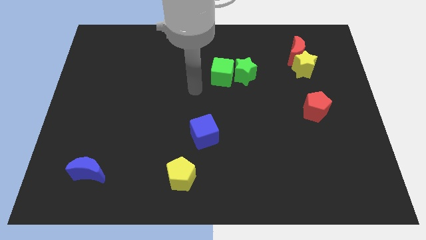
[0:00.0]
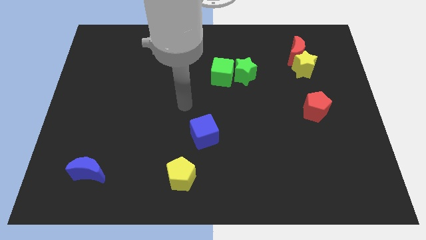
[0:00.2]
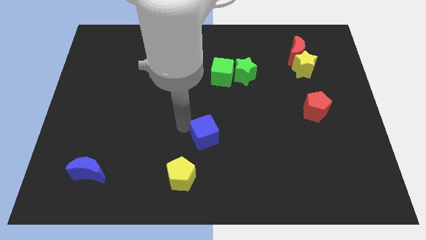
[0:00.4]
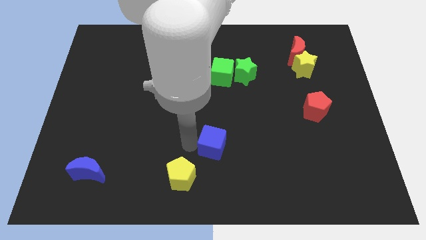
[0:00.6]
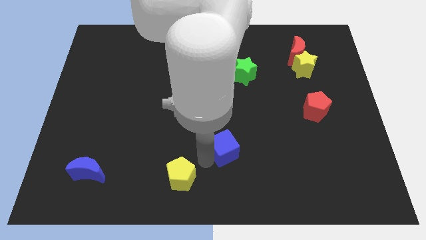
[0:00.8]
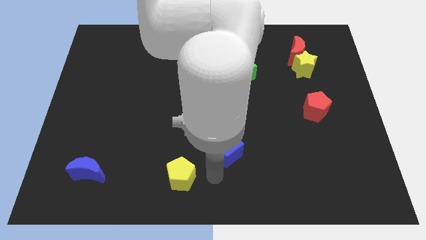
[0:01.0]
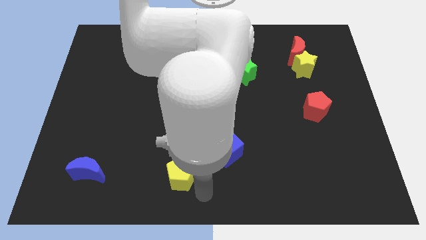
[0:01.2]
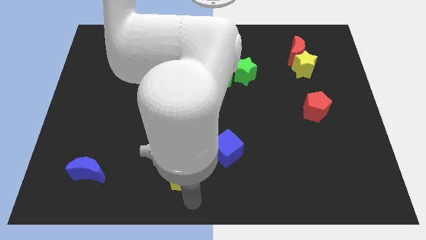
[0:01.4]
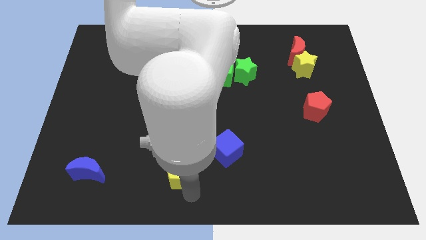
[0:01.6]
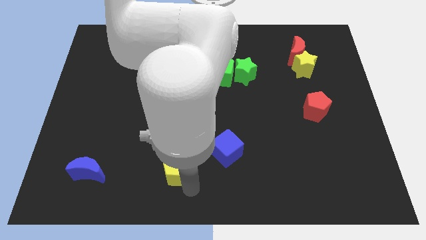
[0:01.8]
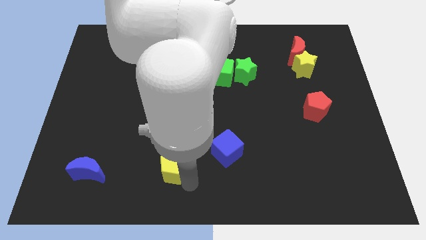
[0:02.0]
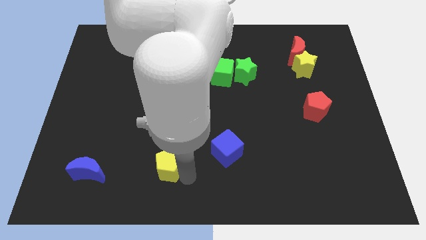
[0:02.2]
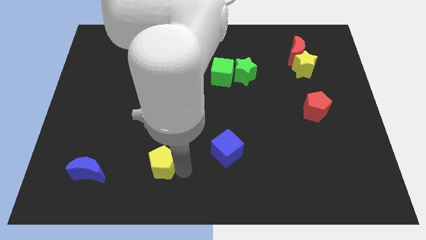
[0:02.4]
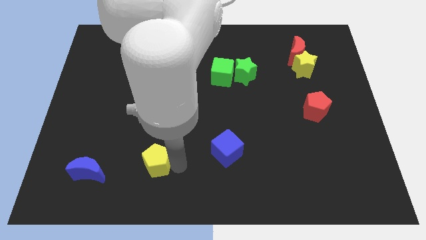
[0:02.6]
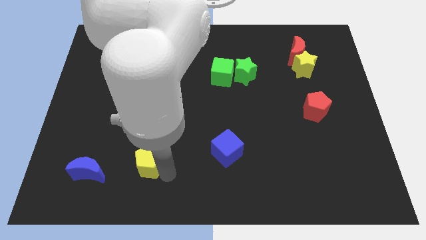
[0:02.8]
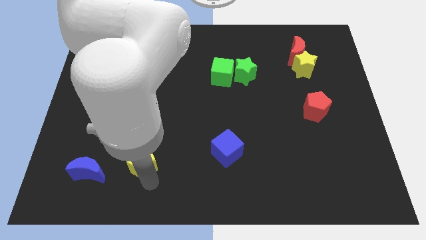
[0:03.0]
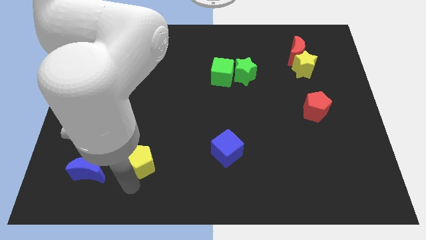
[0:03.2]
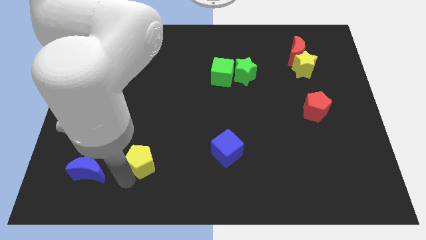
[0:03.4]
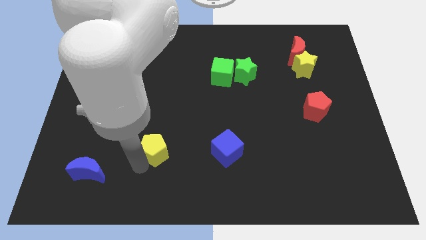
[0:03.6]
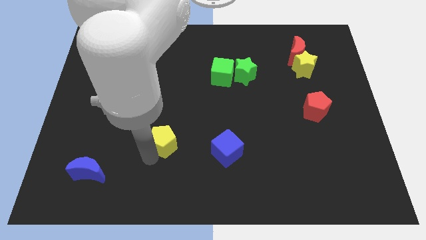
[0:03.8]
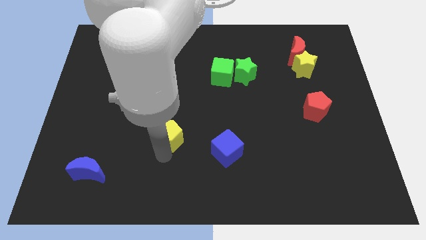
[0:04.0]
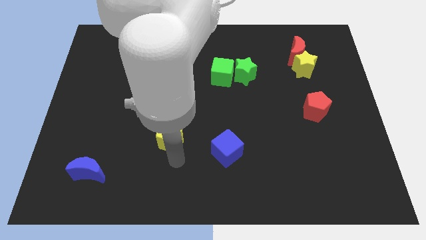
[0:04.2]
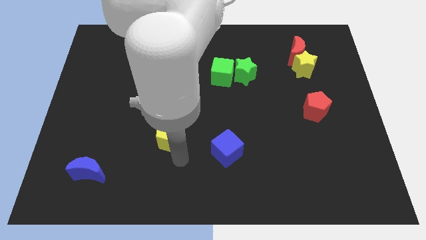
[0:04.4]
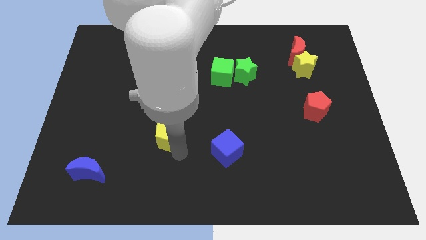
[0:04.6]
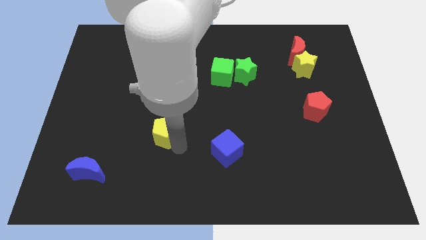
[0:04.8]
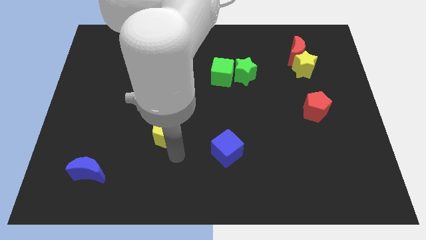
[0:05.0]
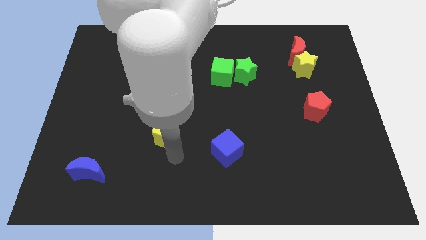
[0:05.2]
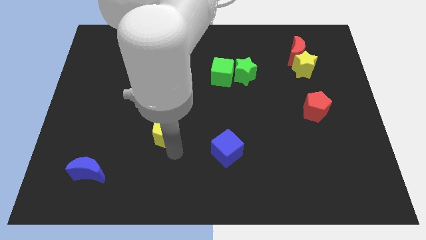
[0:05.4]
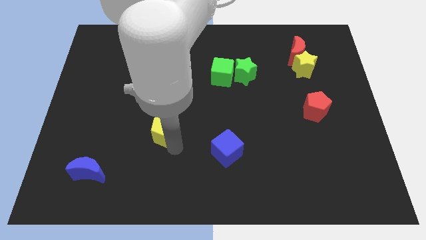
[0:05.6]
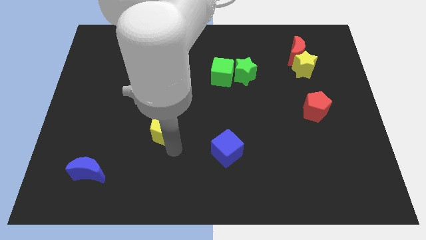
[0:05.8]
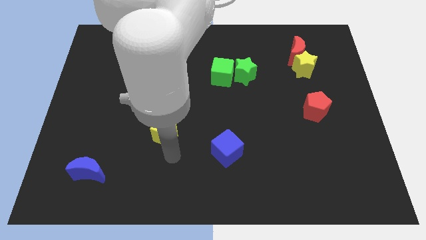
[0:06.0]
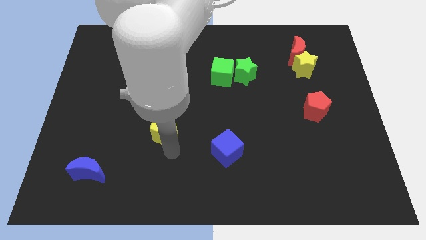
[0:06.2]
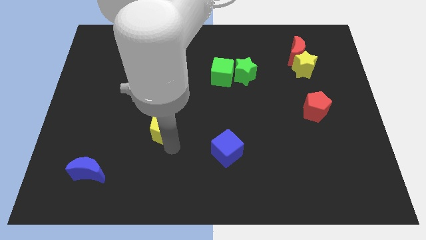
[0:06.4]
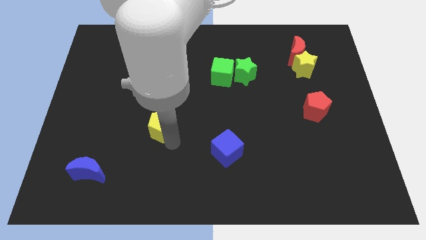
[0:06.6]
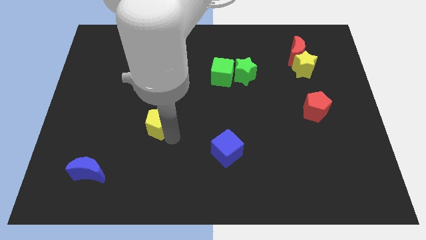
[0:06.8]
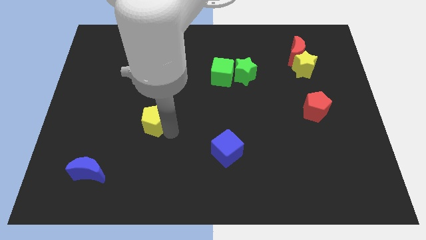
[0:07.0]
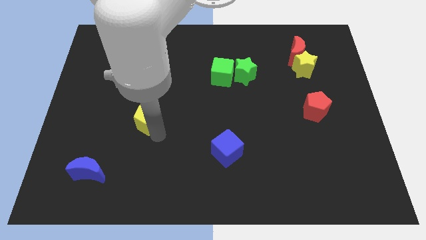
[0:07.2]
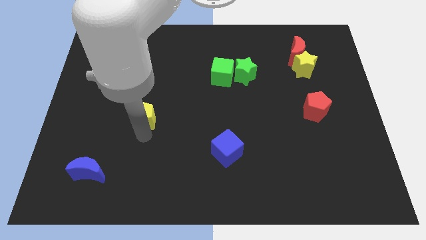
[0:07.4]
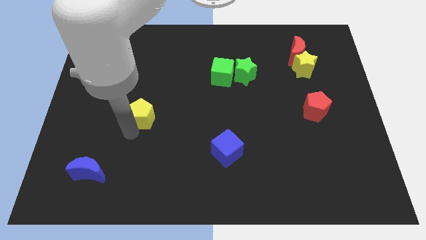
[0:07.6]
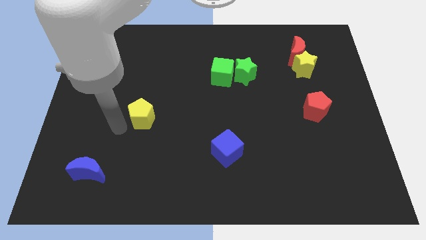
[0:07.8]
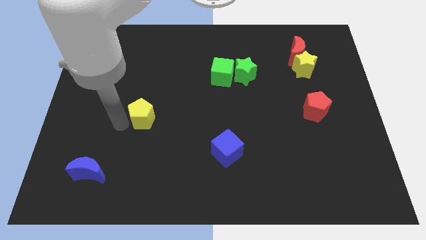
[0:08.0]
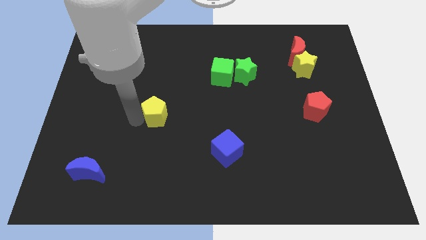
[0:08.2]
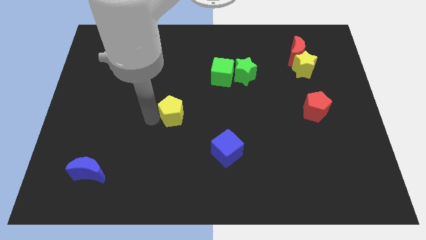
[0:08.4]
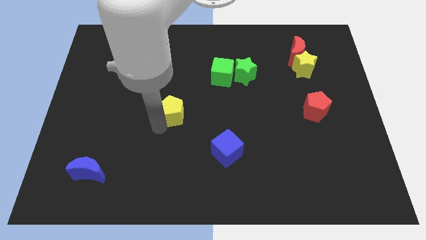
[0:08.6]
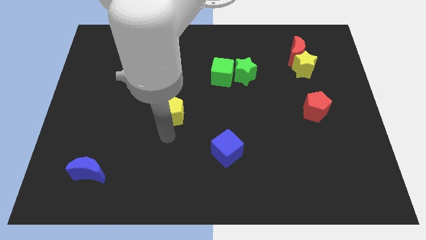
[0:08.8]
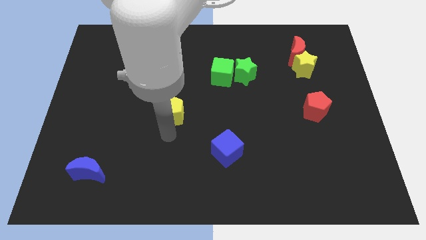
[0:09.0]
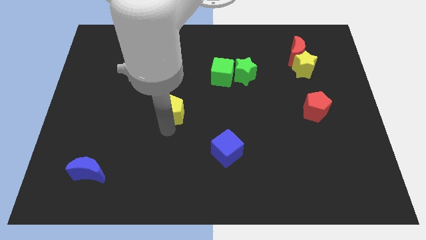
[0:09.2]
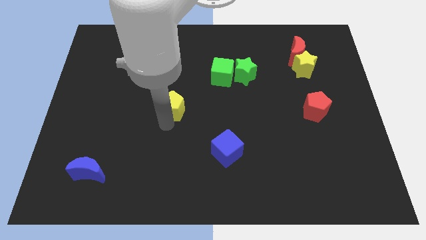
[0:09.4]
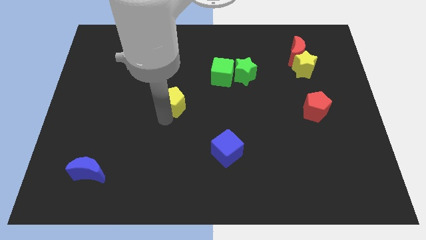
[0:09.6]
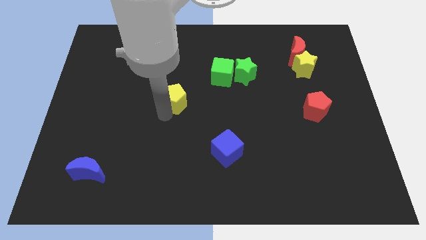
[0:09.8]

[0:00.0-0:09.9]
move the yellow pentagon up

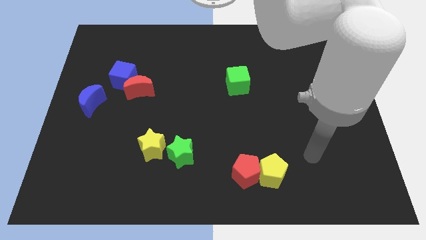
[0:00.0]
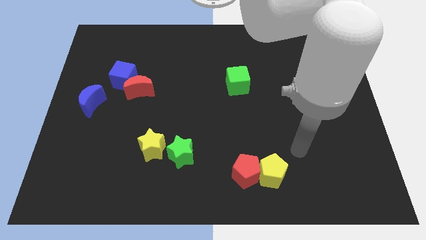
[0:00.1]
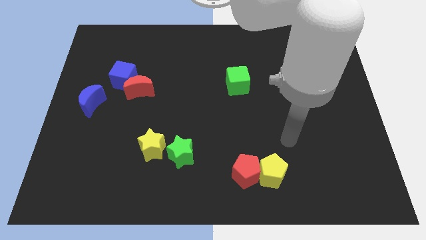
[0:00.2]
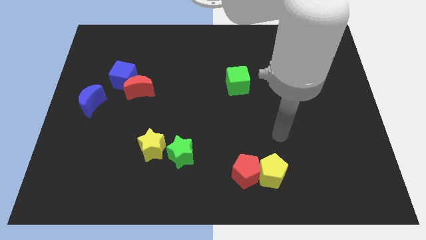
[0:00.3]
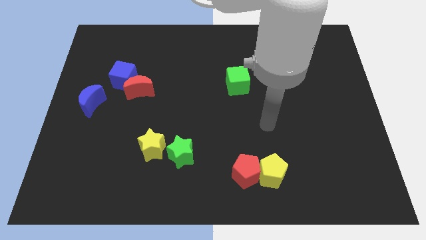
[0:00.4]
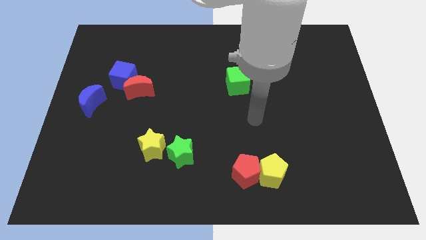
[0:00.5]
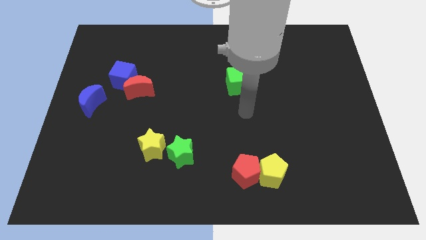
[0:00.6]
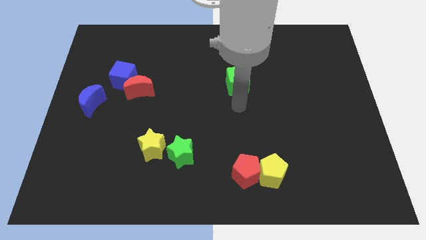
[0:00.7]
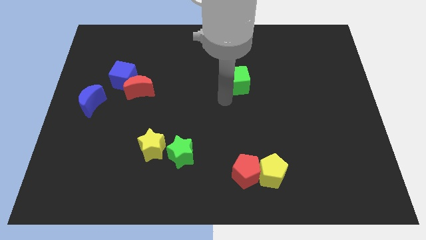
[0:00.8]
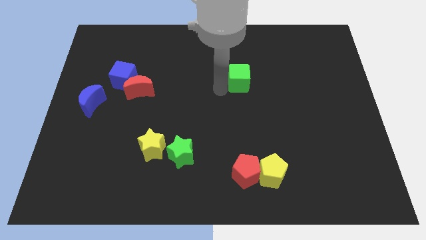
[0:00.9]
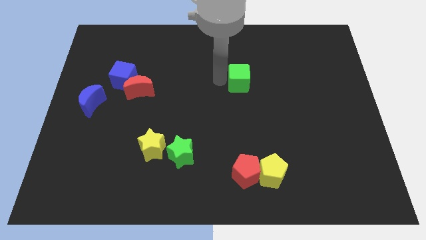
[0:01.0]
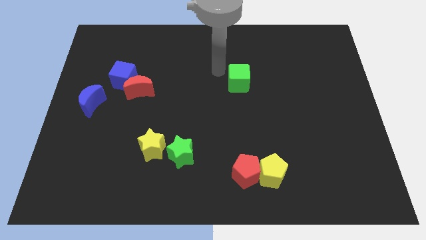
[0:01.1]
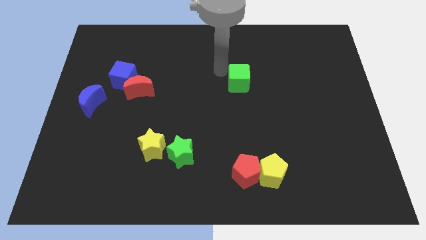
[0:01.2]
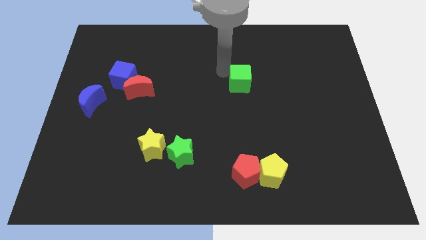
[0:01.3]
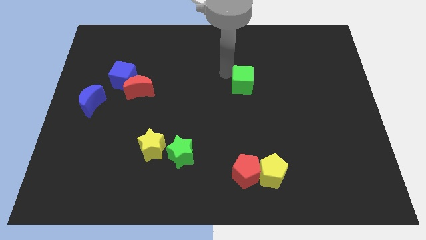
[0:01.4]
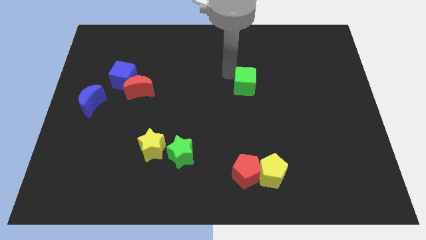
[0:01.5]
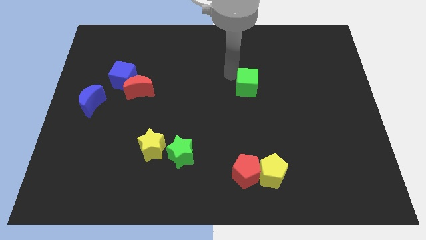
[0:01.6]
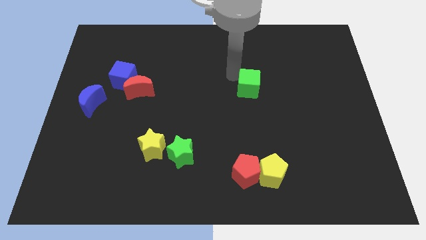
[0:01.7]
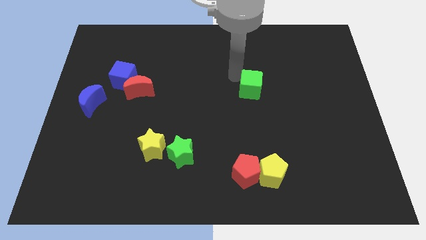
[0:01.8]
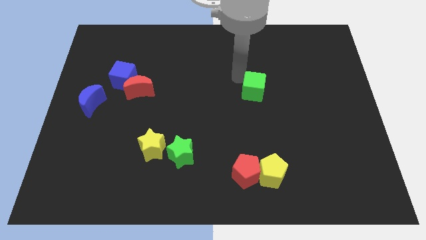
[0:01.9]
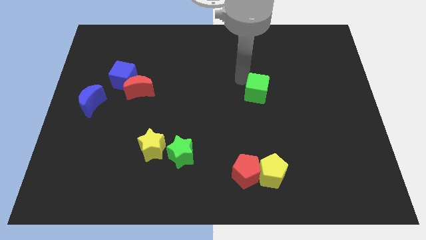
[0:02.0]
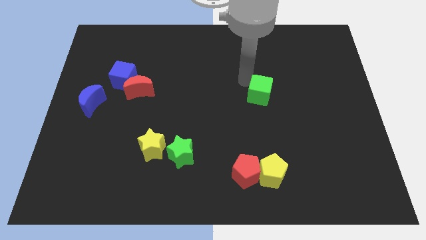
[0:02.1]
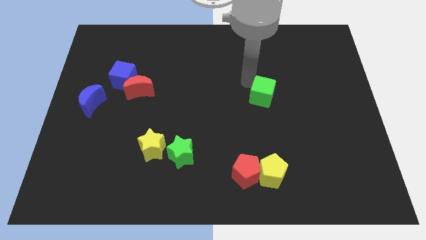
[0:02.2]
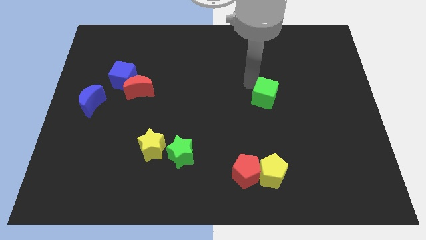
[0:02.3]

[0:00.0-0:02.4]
push the green cube down and right diagonally somewhat

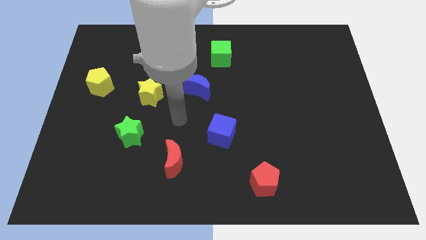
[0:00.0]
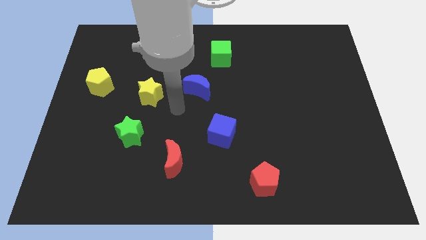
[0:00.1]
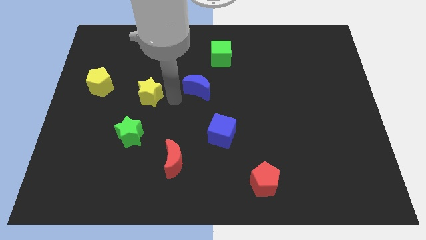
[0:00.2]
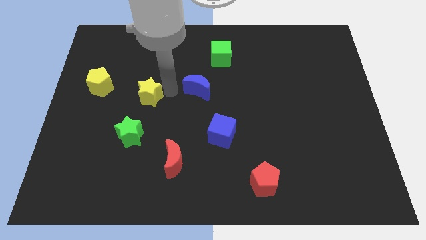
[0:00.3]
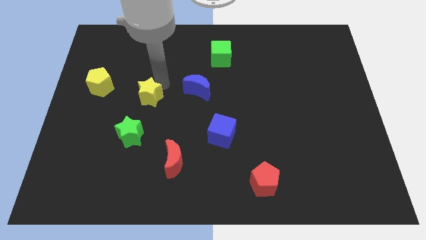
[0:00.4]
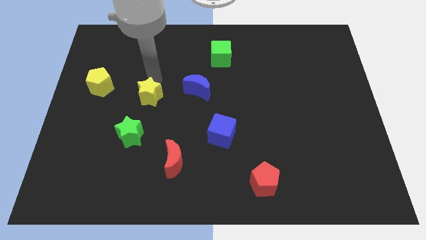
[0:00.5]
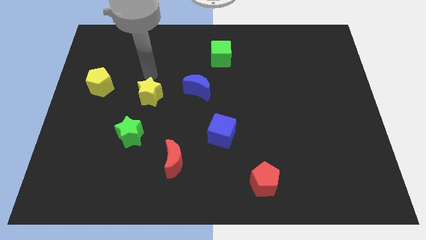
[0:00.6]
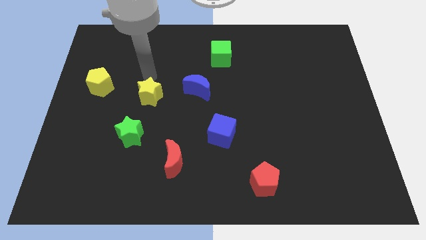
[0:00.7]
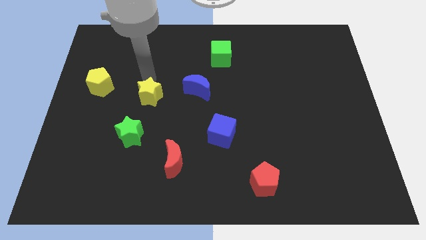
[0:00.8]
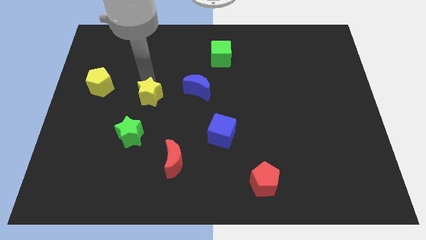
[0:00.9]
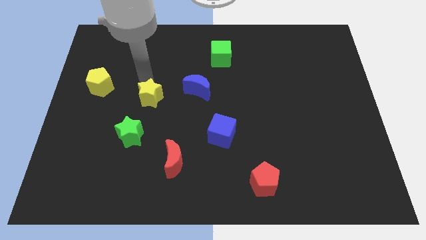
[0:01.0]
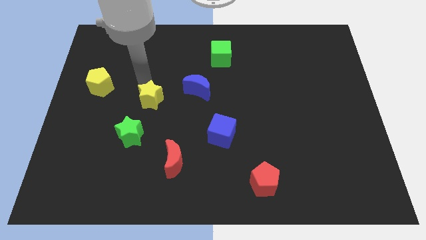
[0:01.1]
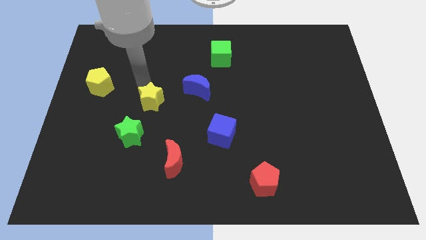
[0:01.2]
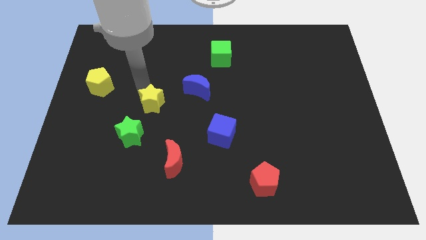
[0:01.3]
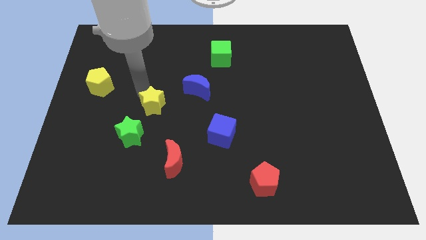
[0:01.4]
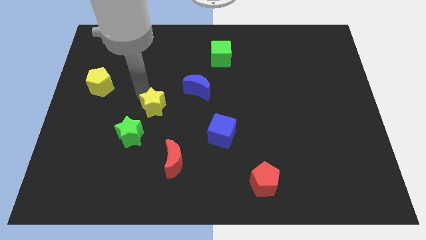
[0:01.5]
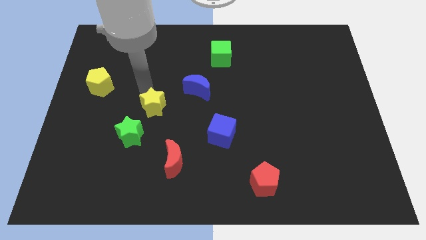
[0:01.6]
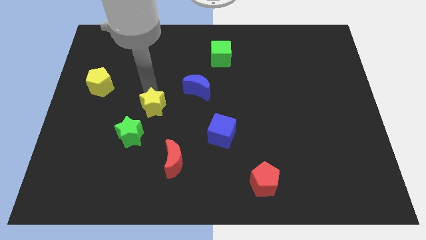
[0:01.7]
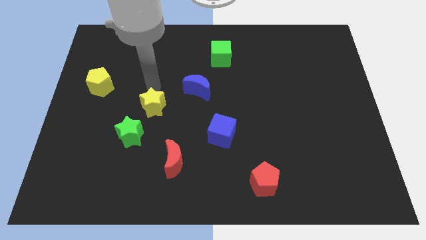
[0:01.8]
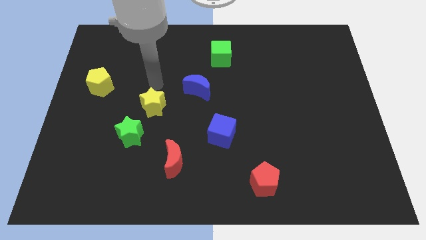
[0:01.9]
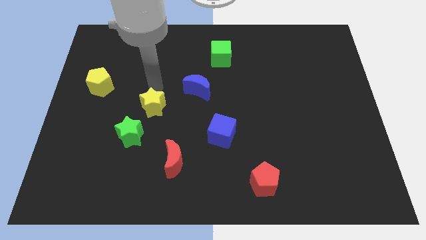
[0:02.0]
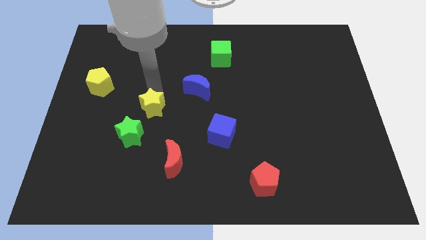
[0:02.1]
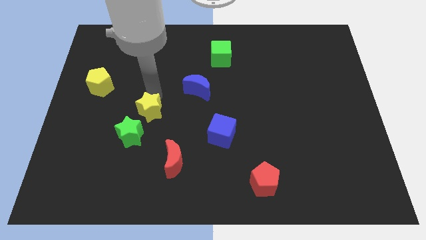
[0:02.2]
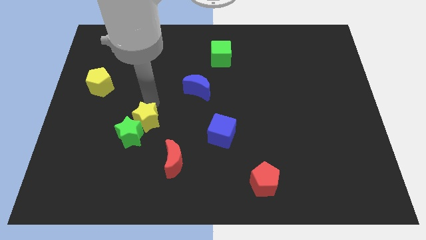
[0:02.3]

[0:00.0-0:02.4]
slide the yellow star slightly down
